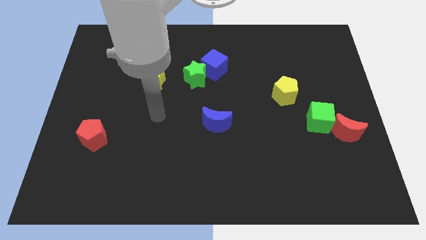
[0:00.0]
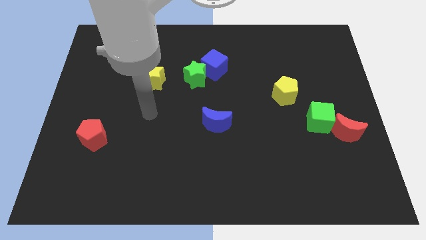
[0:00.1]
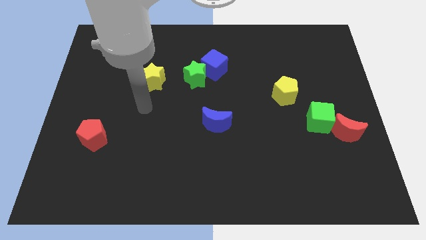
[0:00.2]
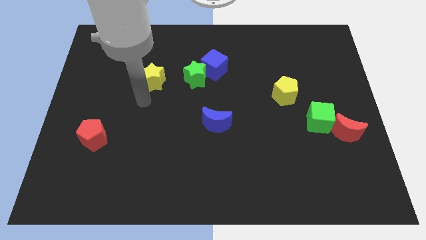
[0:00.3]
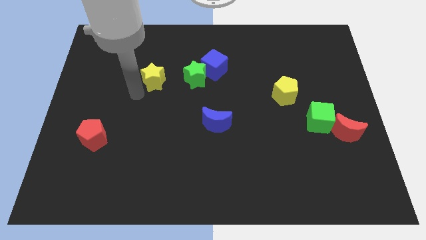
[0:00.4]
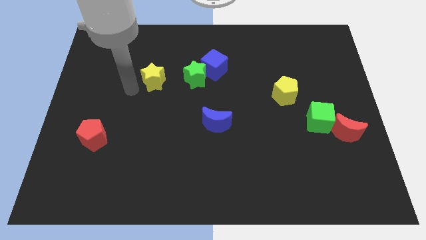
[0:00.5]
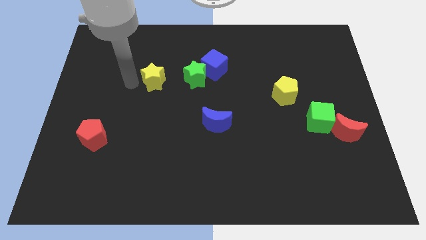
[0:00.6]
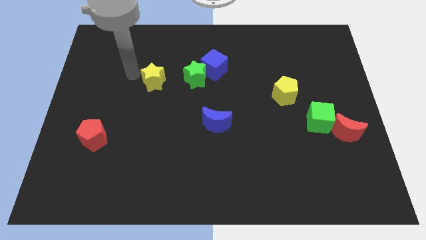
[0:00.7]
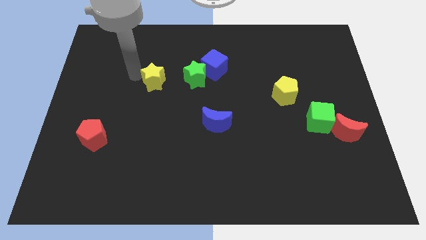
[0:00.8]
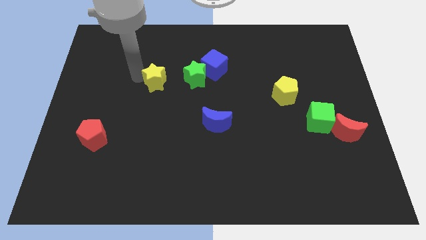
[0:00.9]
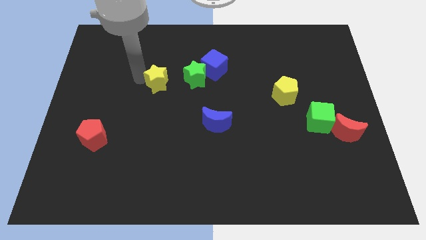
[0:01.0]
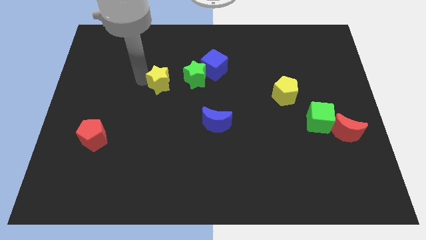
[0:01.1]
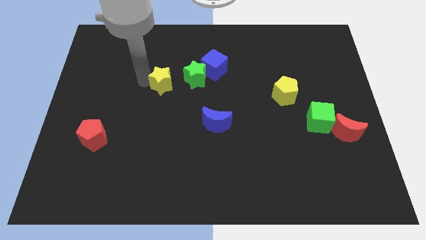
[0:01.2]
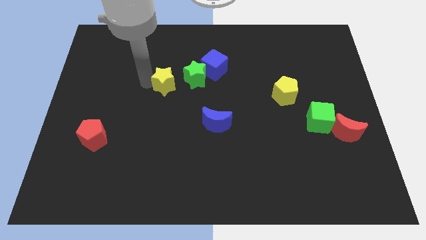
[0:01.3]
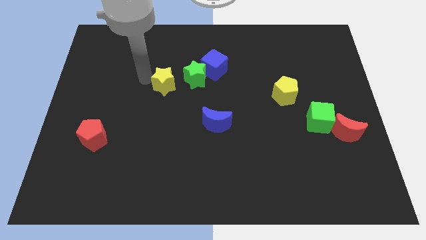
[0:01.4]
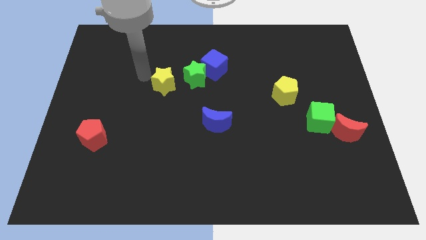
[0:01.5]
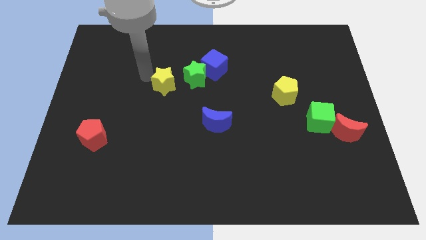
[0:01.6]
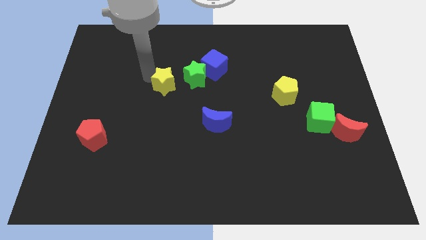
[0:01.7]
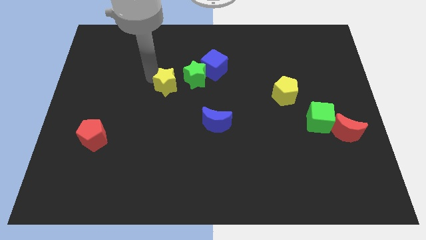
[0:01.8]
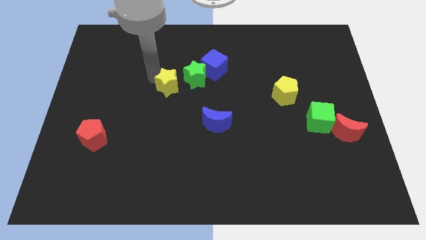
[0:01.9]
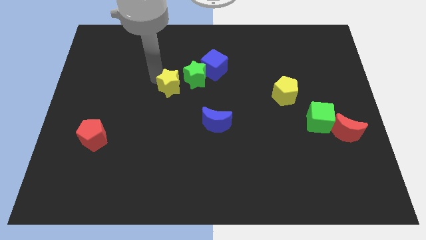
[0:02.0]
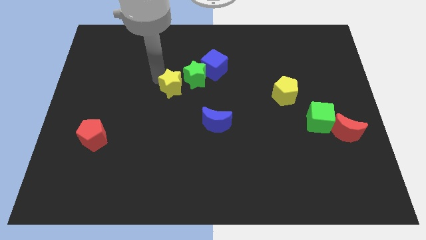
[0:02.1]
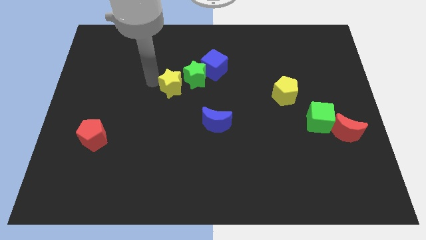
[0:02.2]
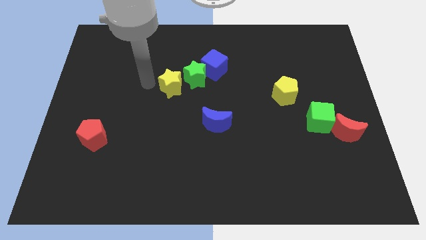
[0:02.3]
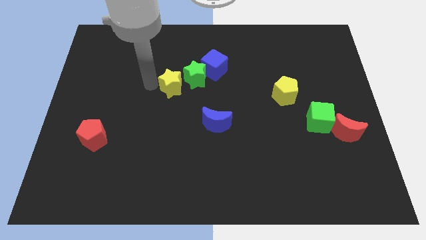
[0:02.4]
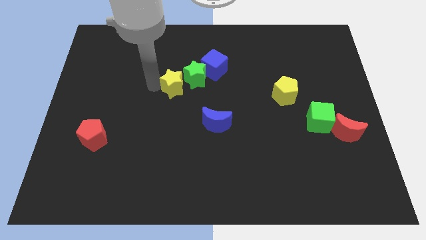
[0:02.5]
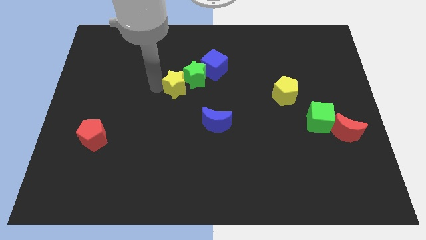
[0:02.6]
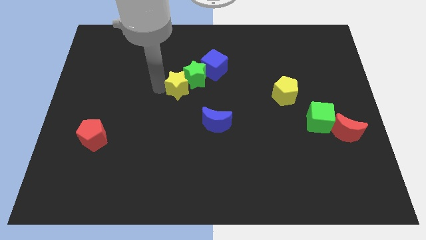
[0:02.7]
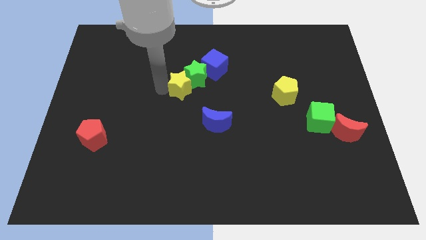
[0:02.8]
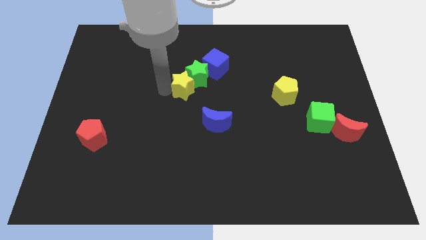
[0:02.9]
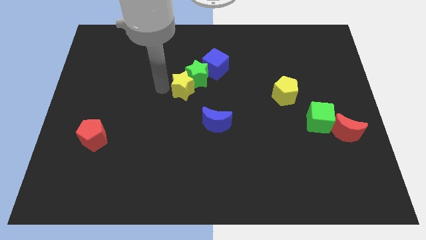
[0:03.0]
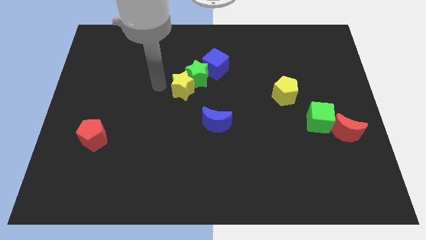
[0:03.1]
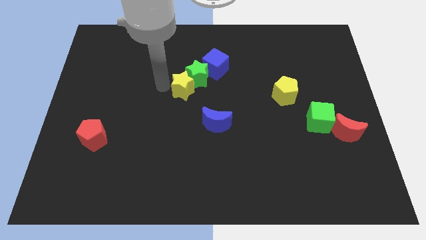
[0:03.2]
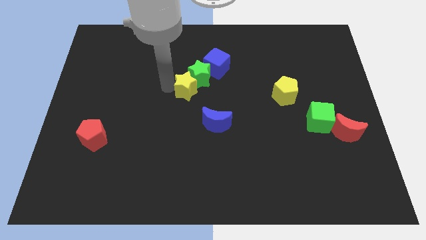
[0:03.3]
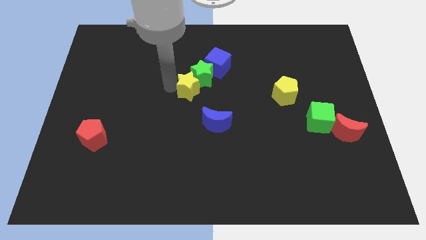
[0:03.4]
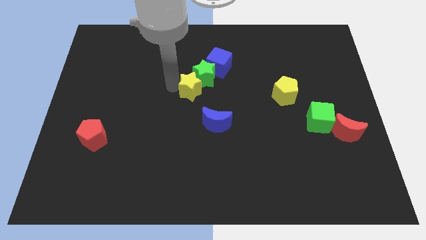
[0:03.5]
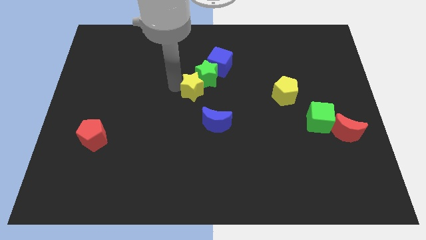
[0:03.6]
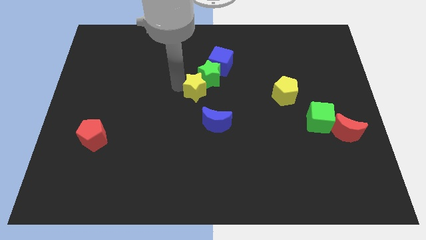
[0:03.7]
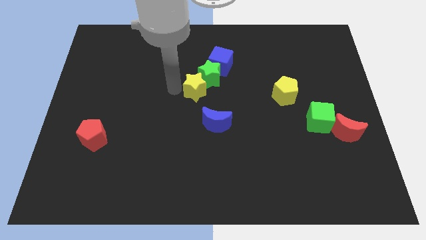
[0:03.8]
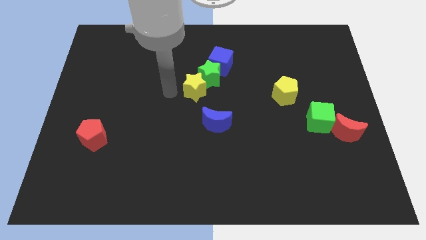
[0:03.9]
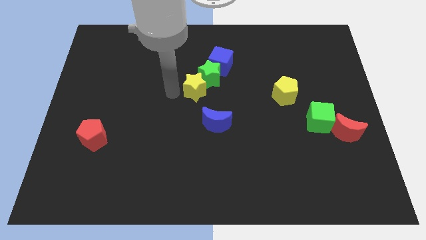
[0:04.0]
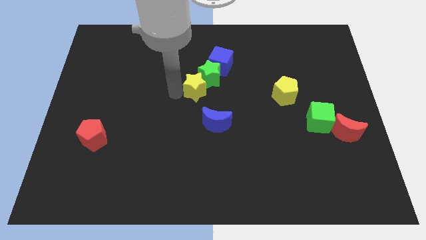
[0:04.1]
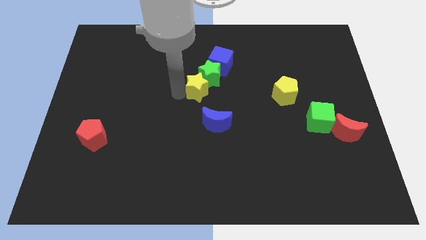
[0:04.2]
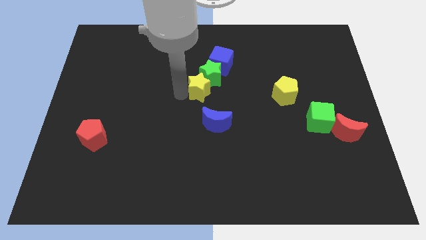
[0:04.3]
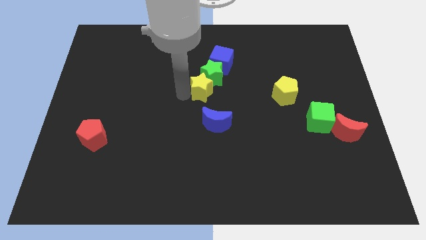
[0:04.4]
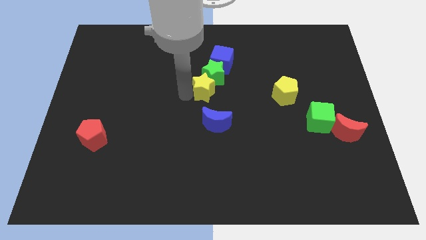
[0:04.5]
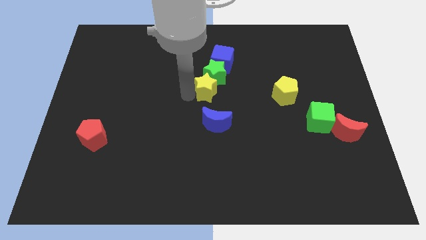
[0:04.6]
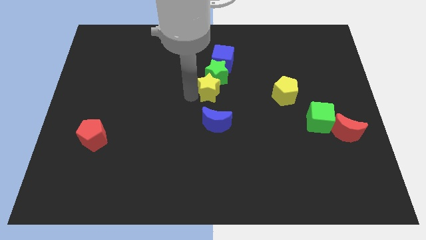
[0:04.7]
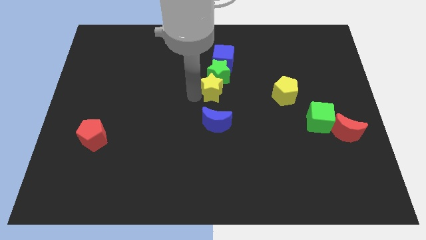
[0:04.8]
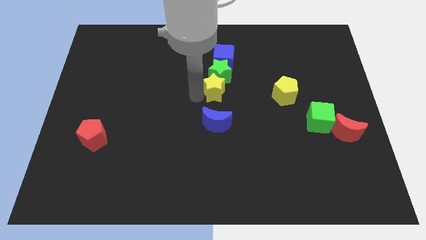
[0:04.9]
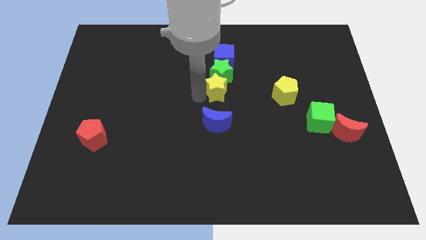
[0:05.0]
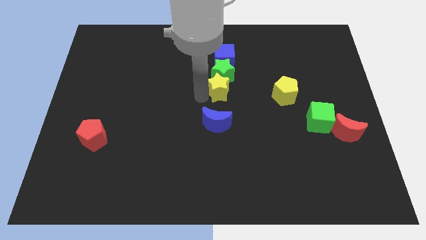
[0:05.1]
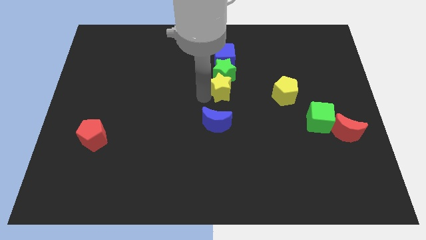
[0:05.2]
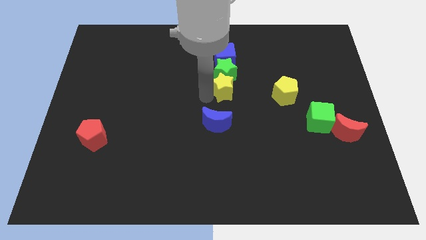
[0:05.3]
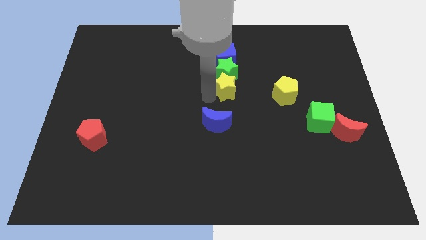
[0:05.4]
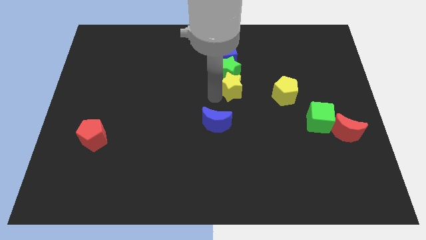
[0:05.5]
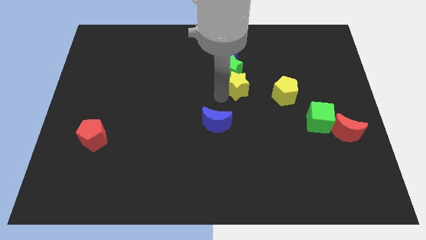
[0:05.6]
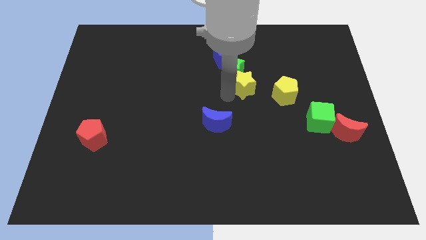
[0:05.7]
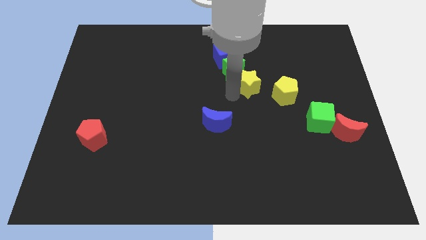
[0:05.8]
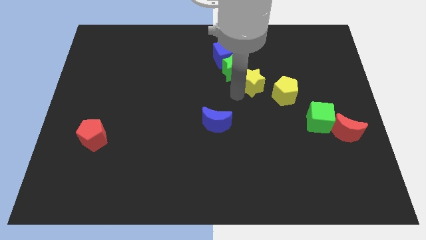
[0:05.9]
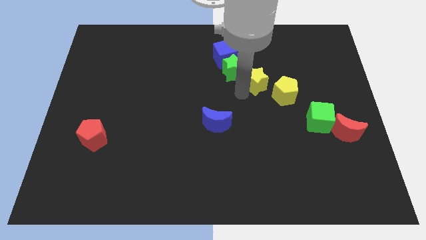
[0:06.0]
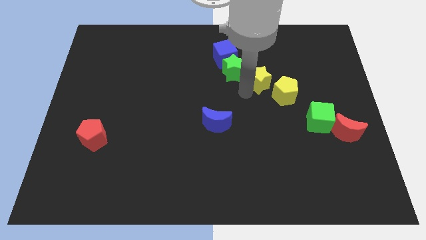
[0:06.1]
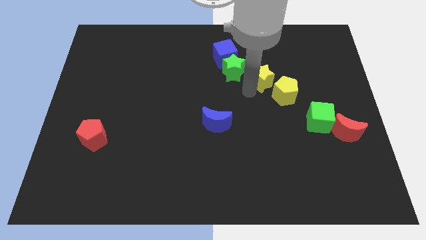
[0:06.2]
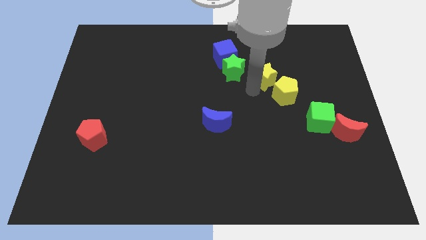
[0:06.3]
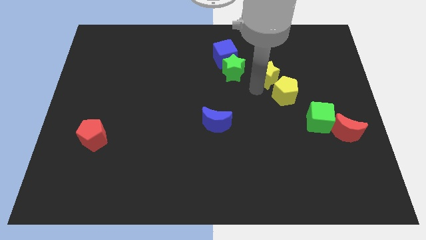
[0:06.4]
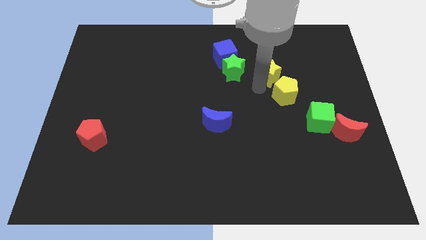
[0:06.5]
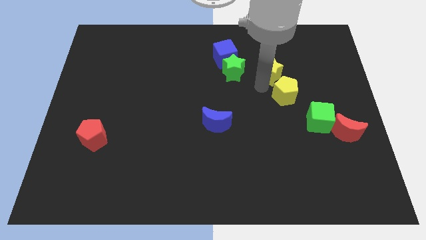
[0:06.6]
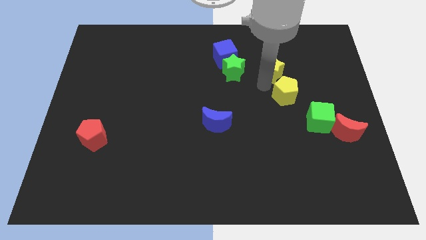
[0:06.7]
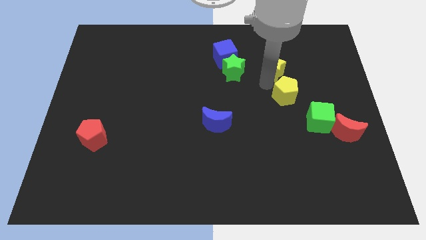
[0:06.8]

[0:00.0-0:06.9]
push the yellow star to the right of the blue cube
